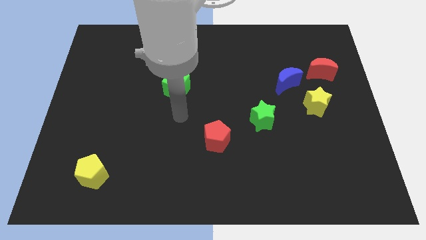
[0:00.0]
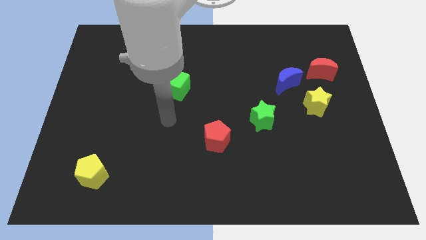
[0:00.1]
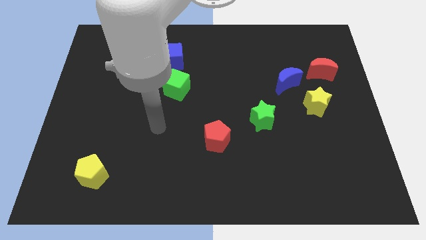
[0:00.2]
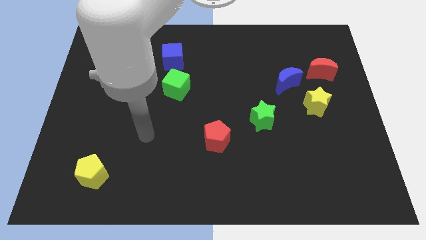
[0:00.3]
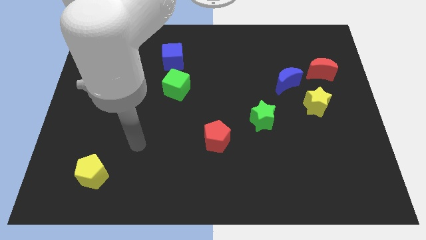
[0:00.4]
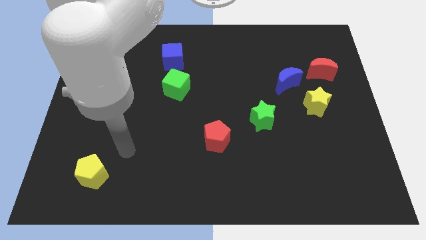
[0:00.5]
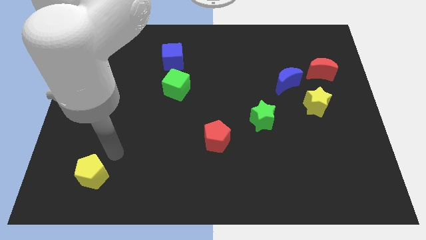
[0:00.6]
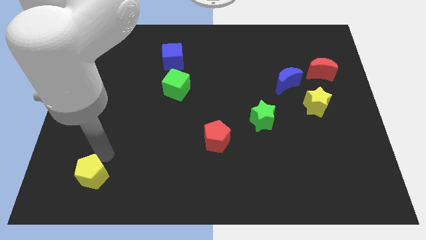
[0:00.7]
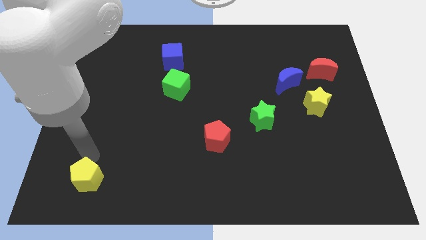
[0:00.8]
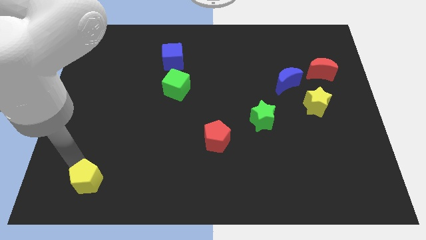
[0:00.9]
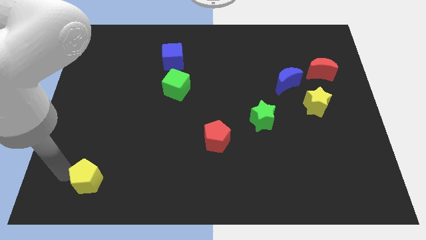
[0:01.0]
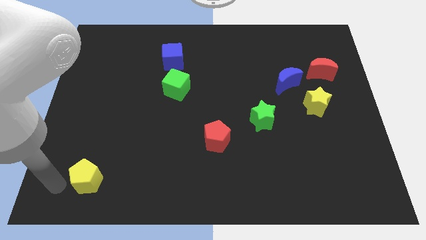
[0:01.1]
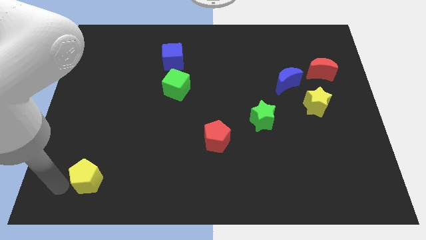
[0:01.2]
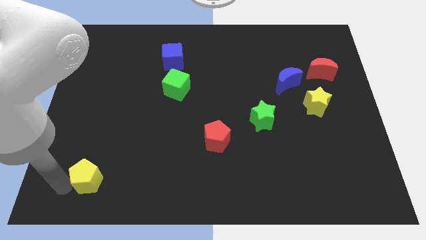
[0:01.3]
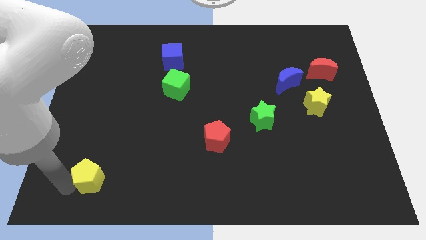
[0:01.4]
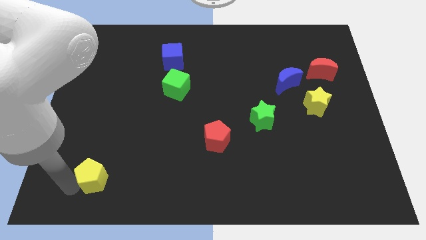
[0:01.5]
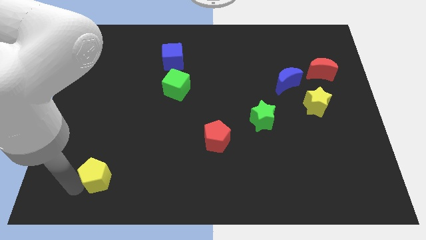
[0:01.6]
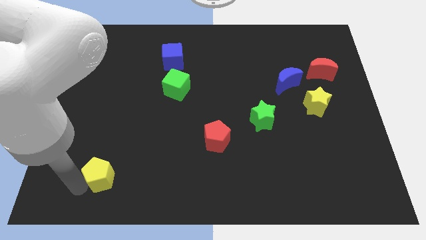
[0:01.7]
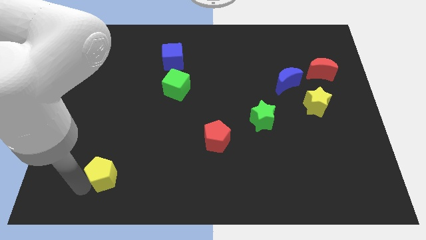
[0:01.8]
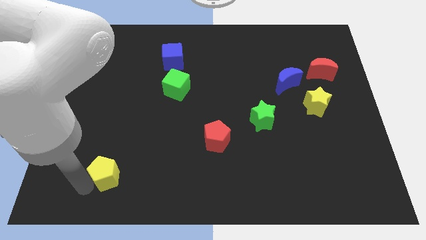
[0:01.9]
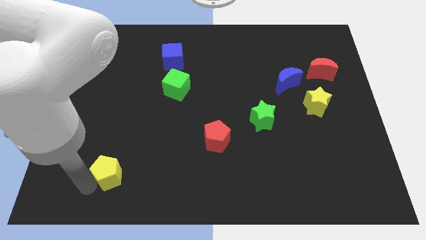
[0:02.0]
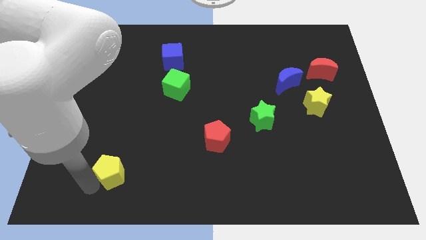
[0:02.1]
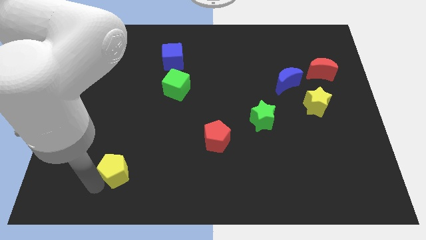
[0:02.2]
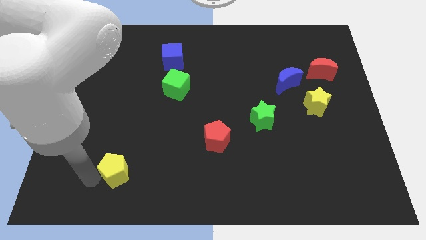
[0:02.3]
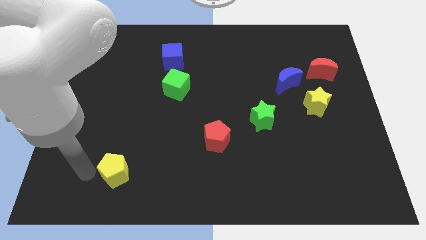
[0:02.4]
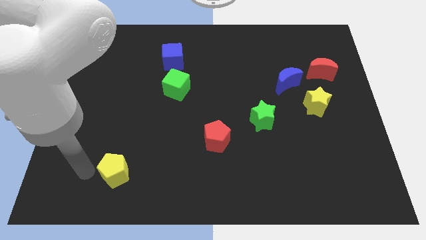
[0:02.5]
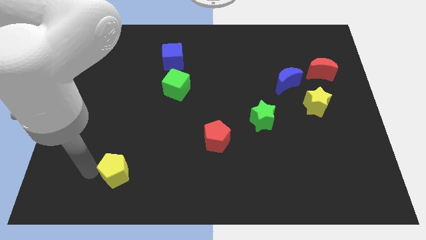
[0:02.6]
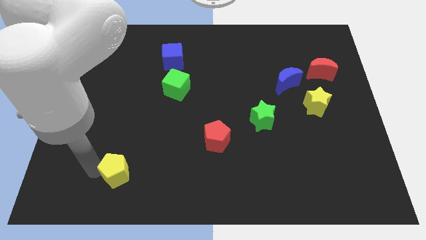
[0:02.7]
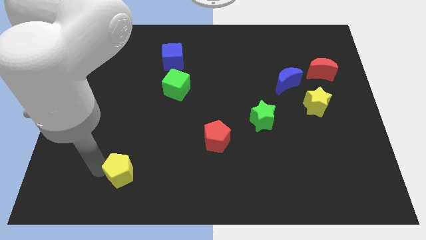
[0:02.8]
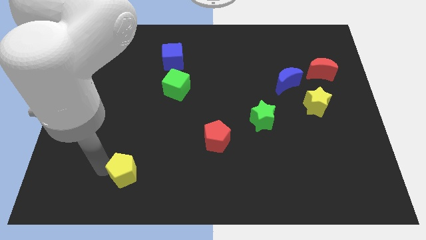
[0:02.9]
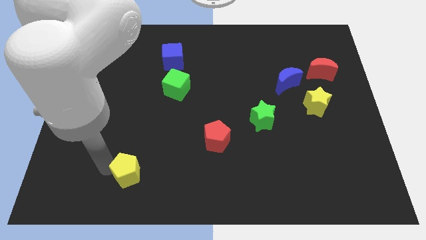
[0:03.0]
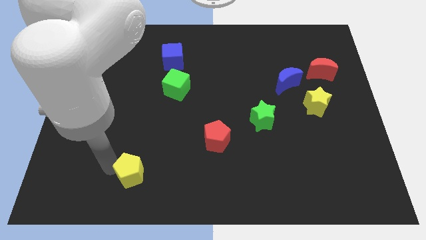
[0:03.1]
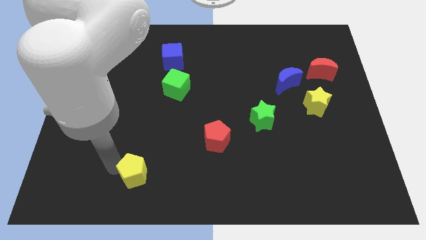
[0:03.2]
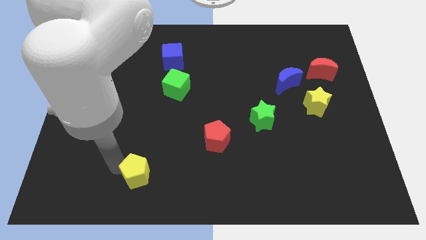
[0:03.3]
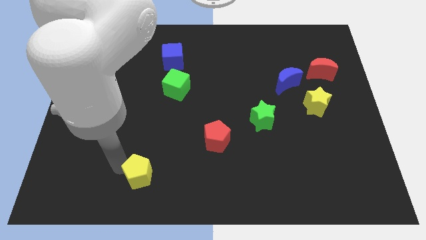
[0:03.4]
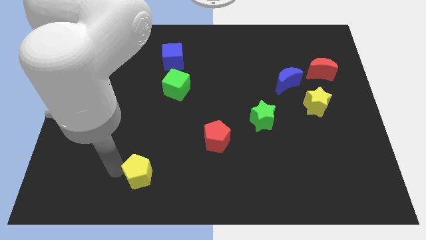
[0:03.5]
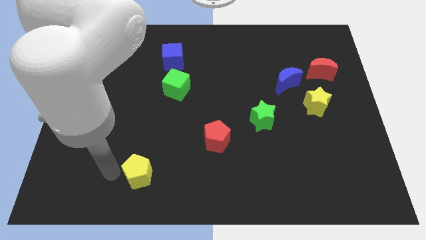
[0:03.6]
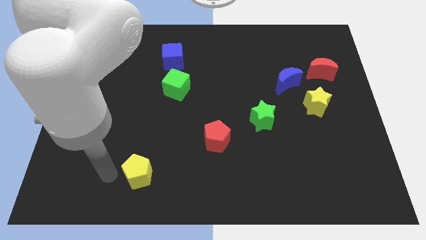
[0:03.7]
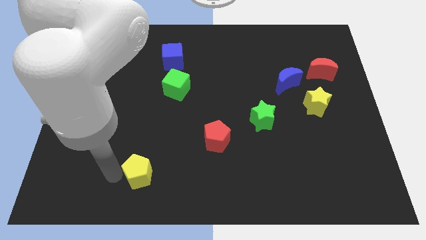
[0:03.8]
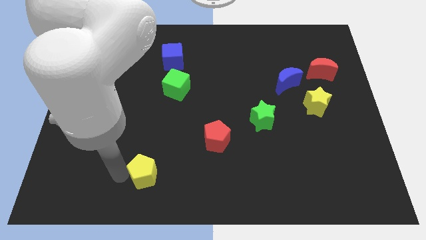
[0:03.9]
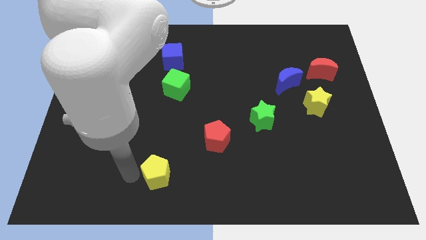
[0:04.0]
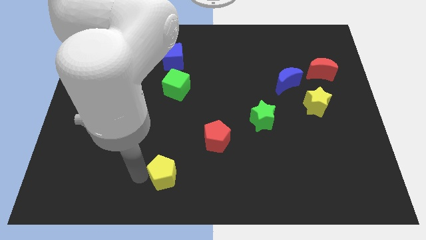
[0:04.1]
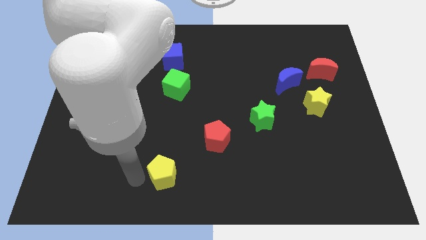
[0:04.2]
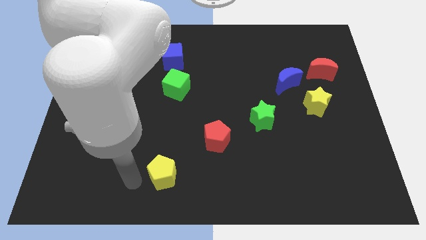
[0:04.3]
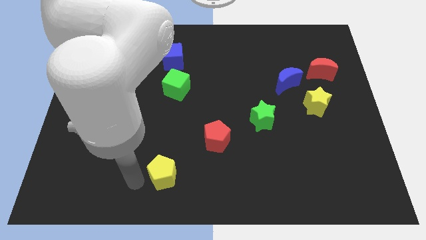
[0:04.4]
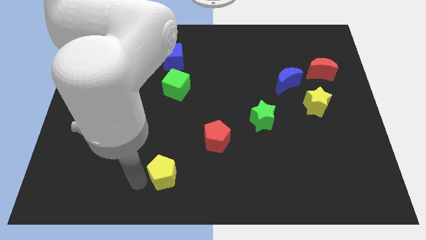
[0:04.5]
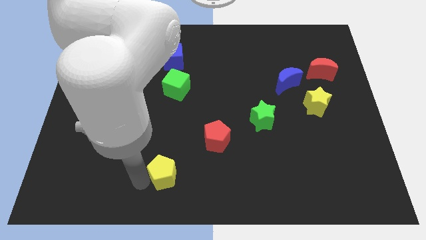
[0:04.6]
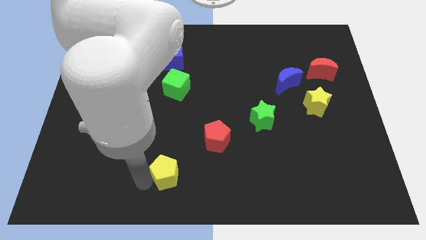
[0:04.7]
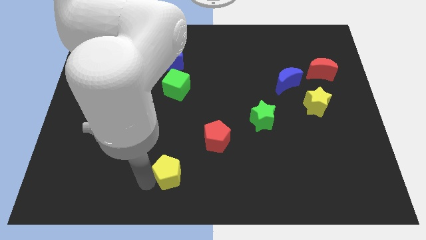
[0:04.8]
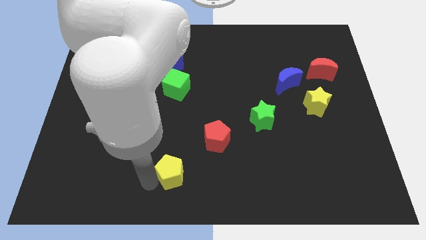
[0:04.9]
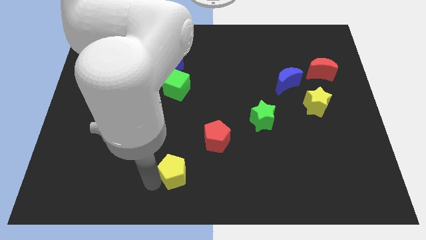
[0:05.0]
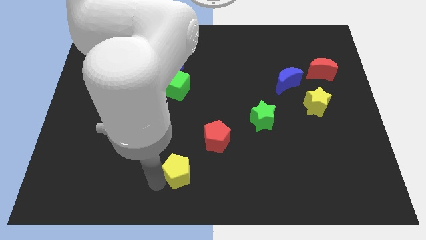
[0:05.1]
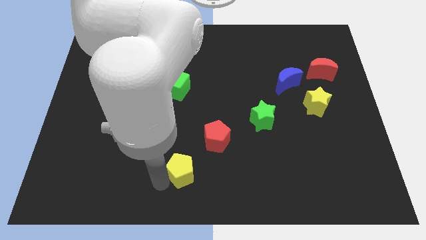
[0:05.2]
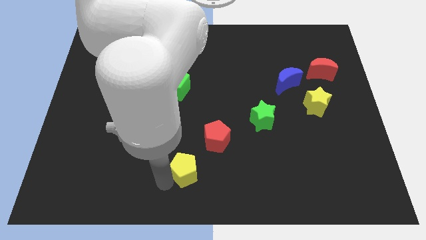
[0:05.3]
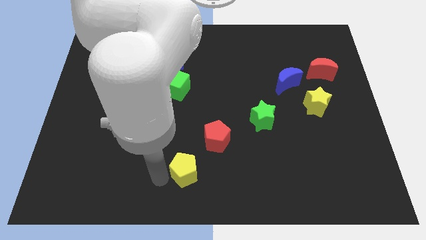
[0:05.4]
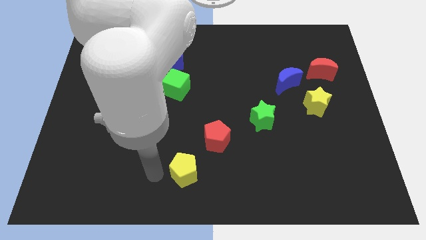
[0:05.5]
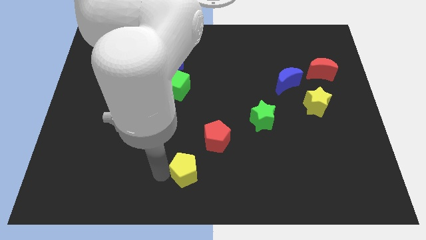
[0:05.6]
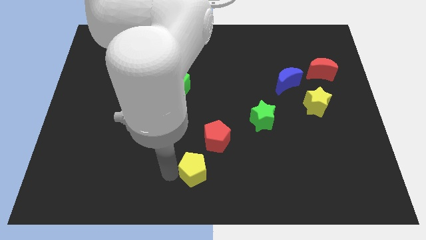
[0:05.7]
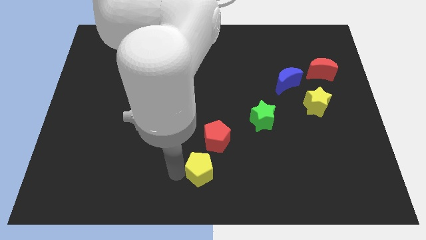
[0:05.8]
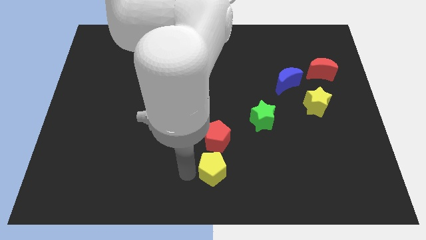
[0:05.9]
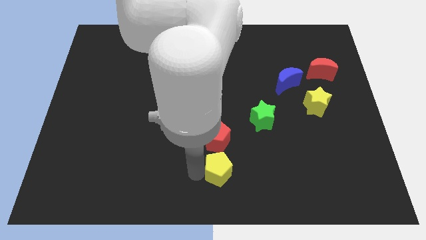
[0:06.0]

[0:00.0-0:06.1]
put the yellow pentagon diagonally down and to the right of the red pentagon
